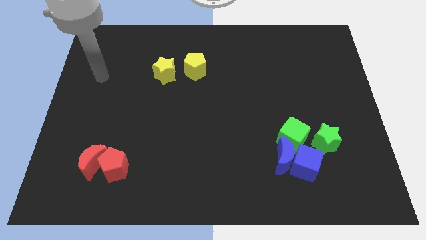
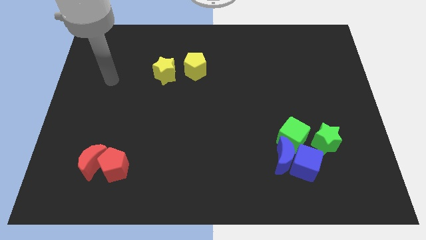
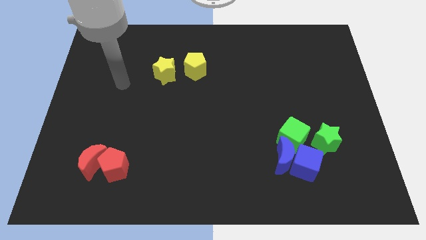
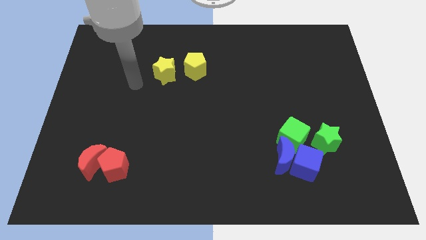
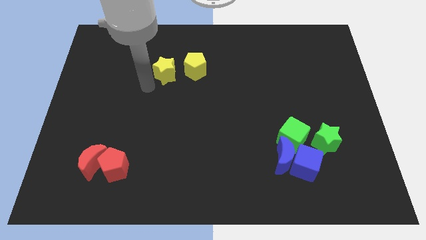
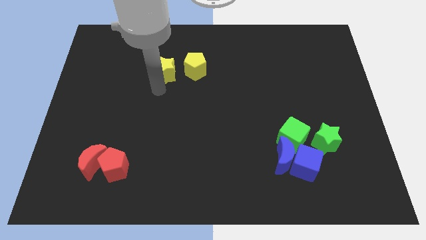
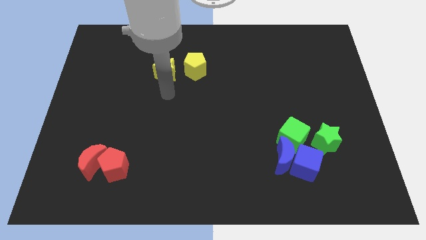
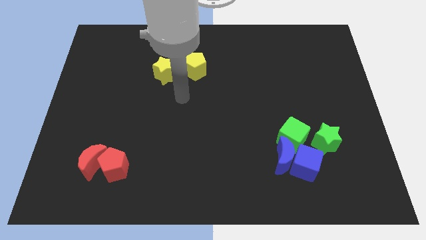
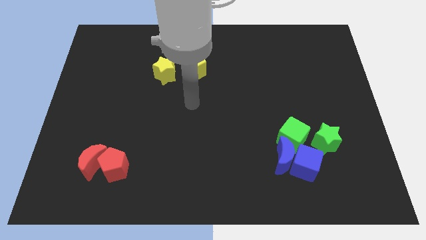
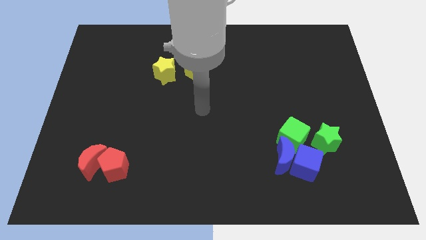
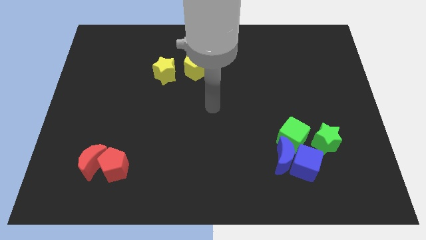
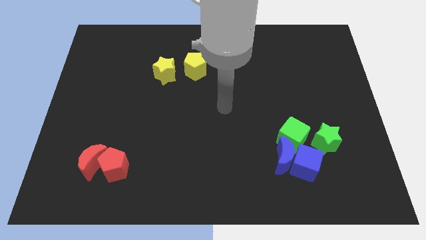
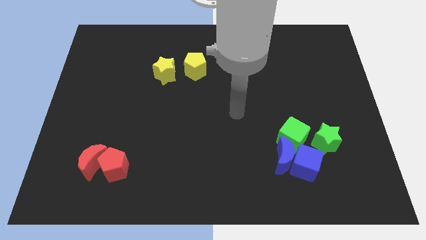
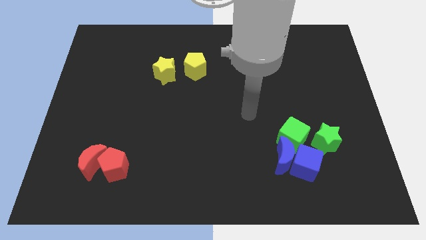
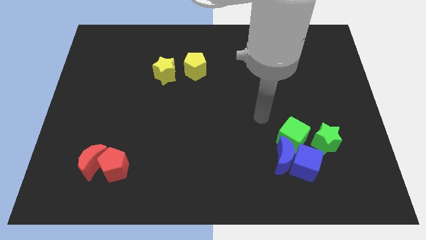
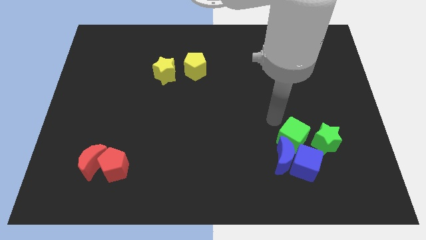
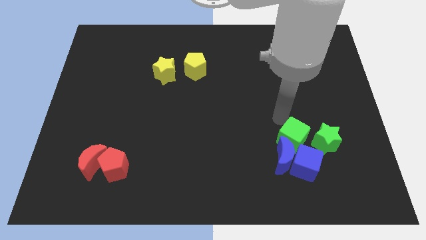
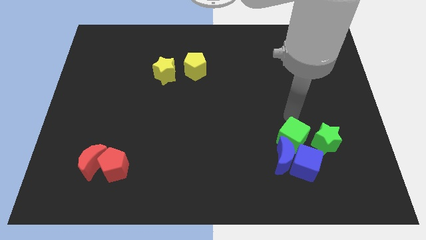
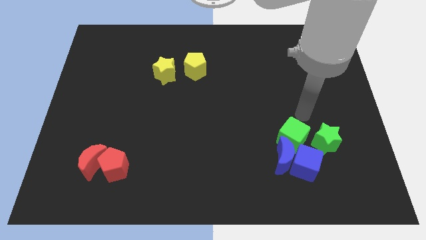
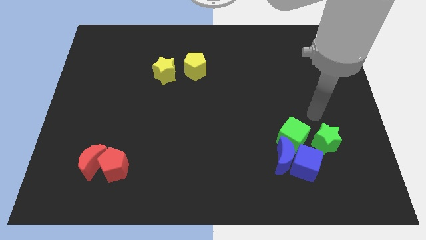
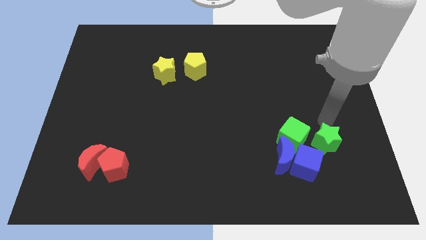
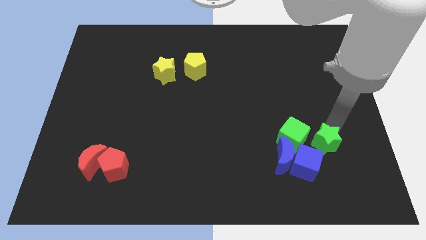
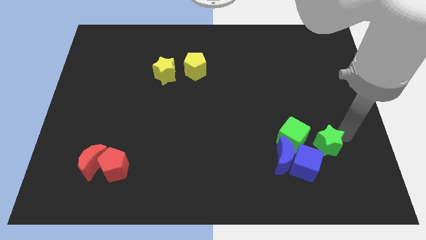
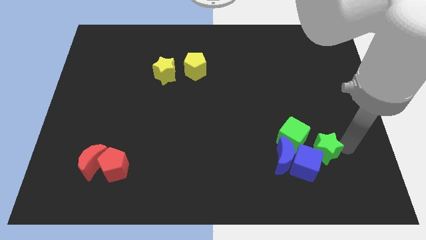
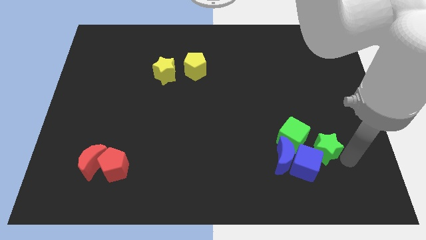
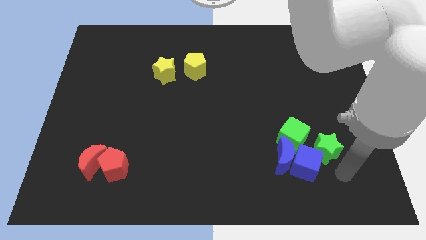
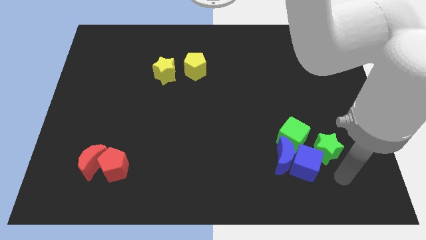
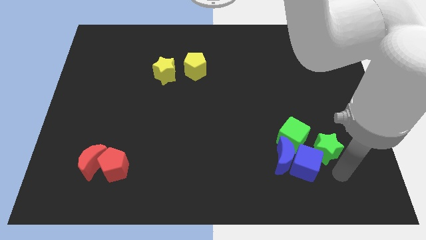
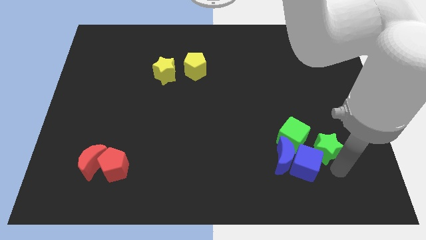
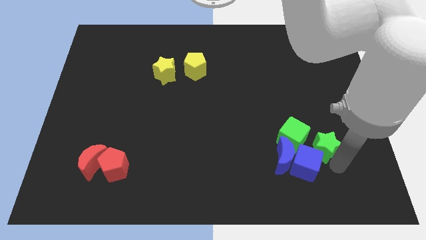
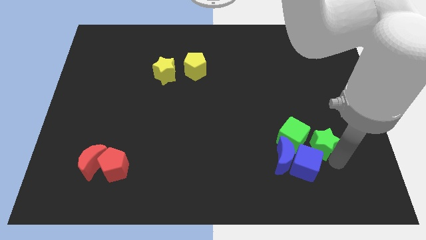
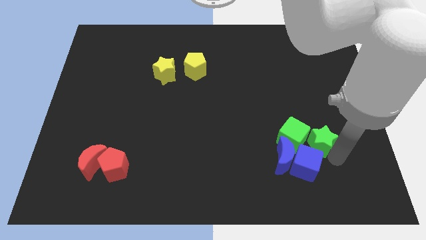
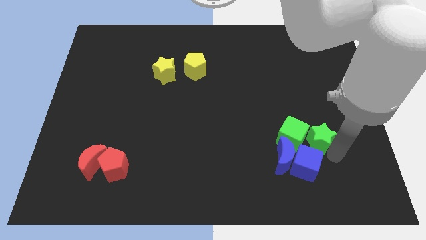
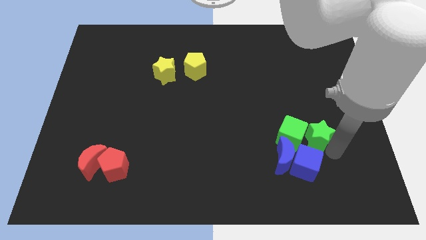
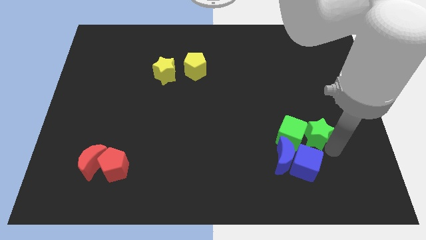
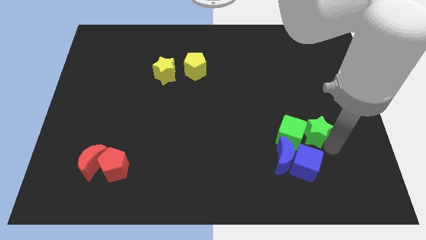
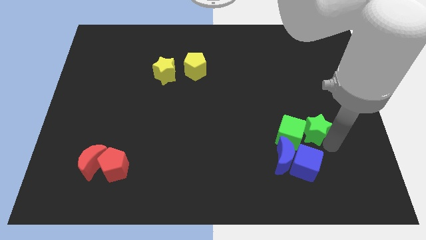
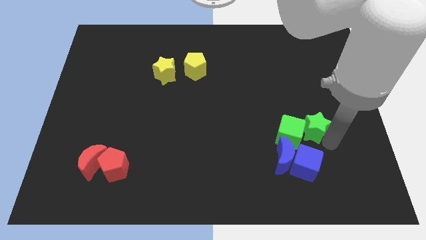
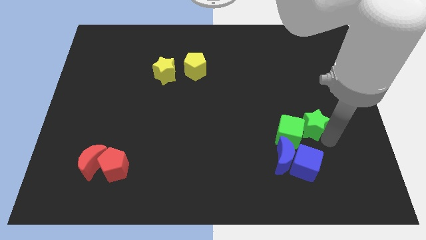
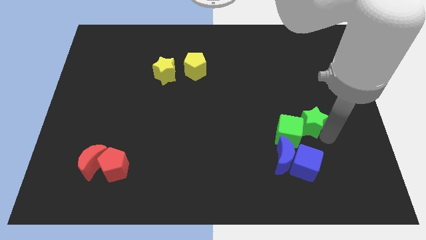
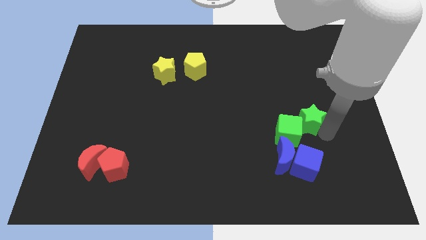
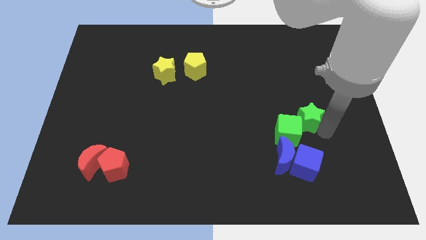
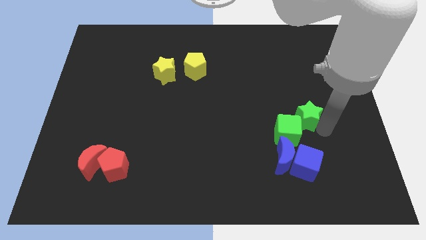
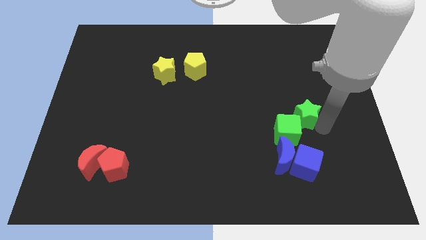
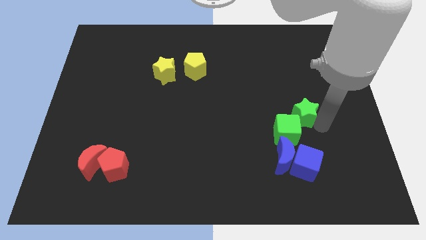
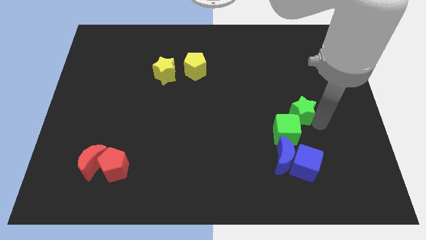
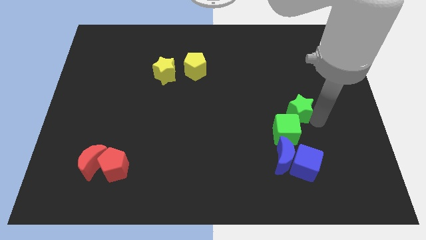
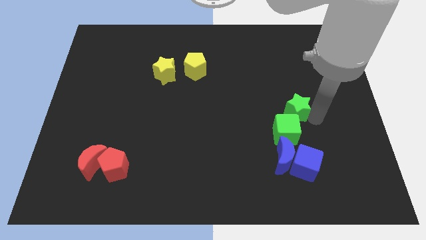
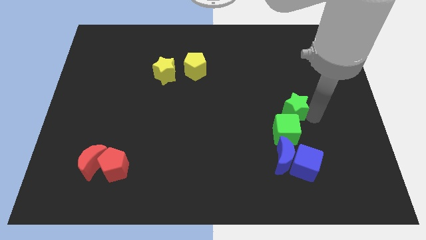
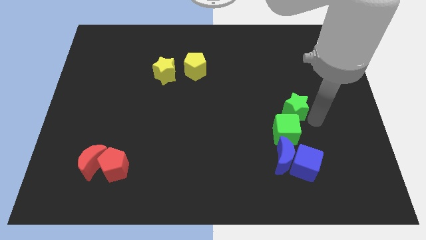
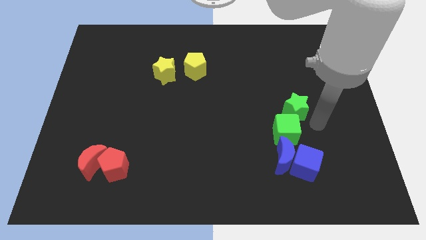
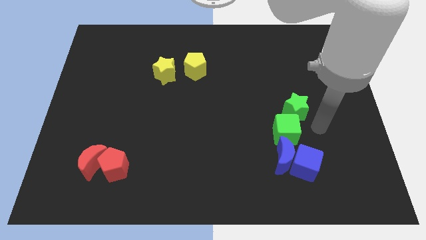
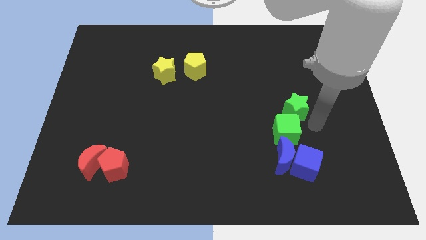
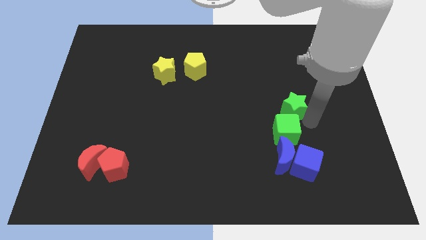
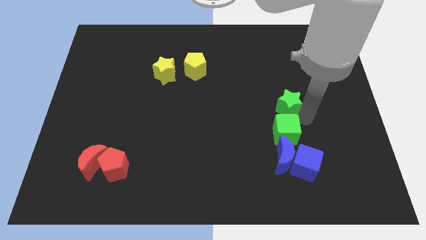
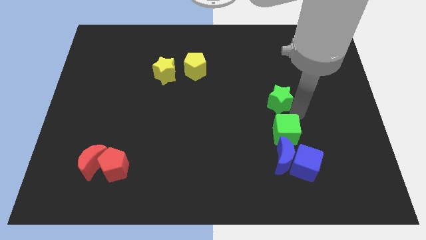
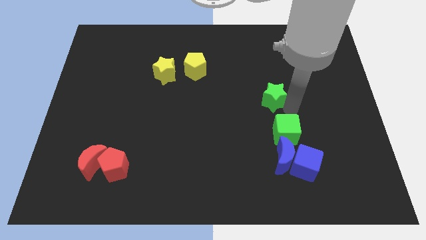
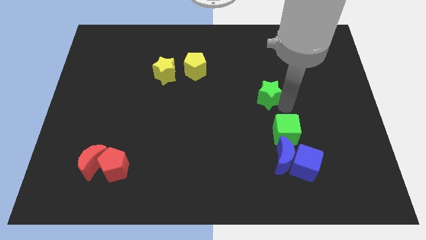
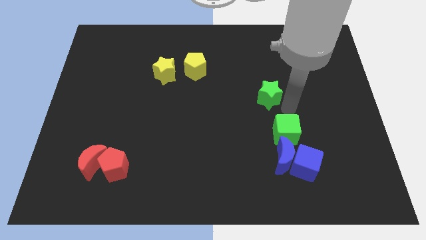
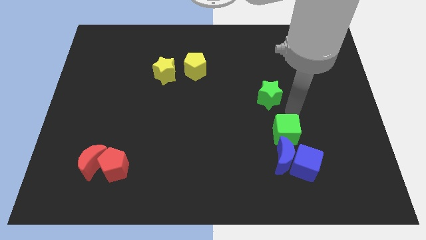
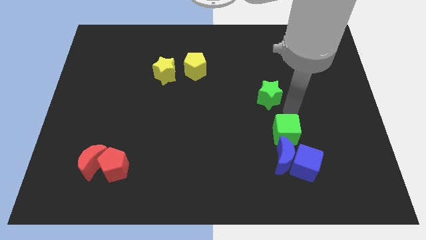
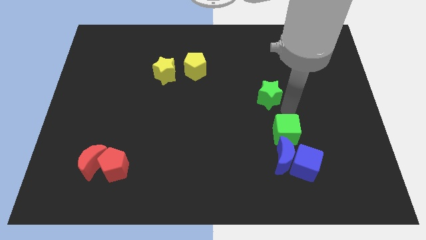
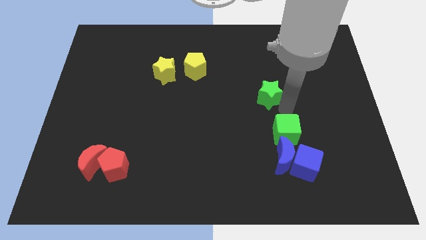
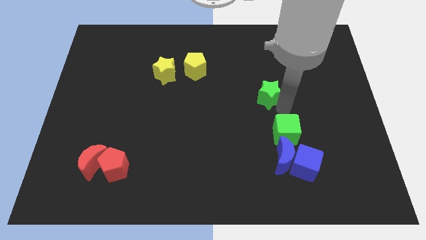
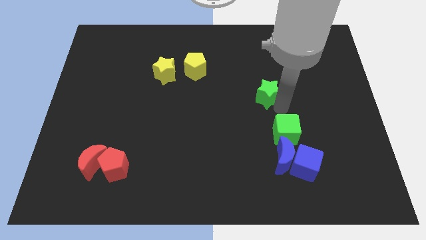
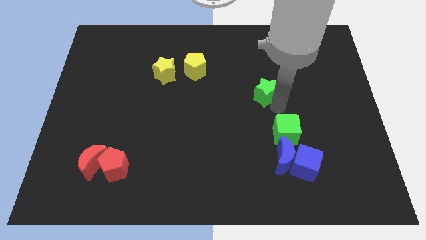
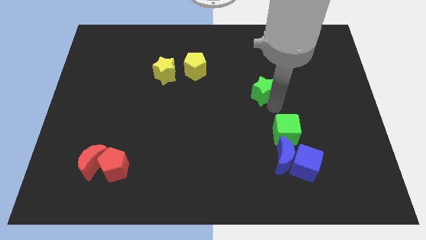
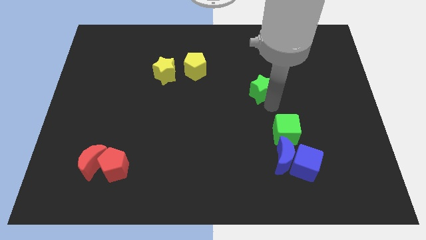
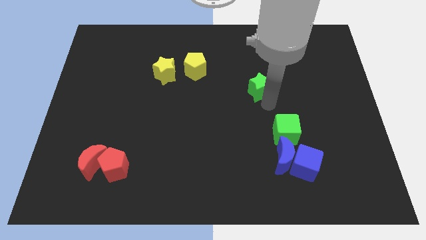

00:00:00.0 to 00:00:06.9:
slide the green star upwards and to the left

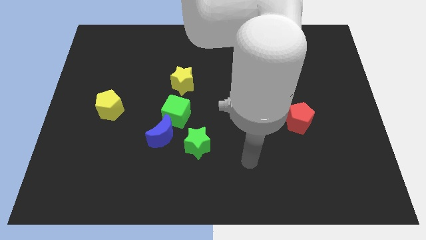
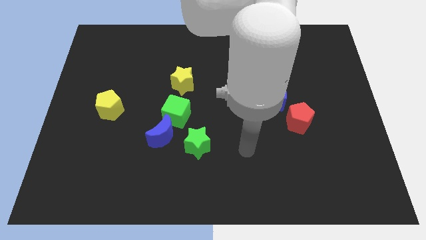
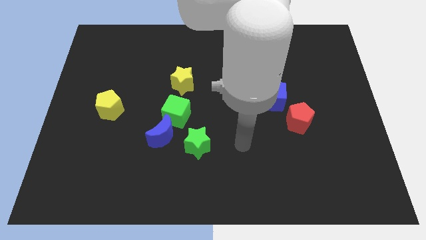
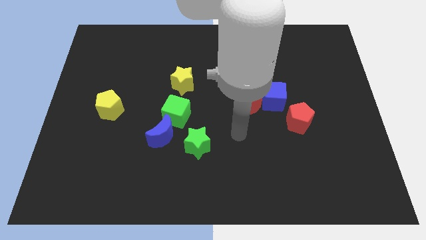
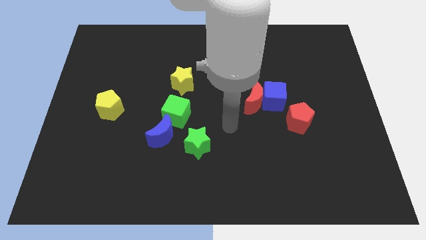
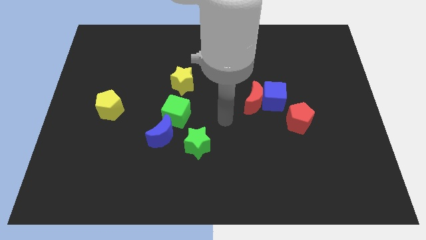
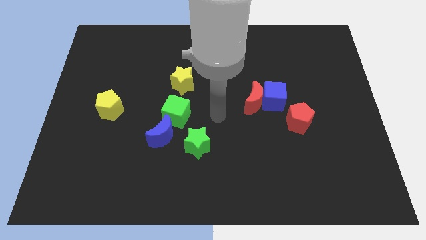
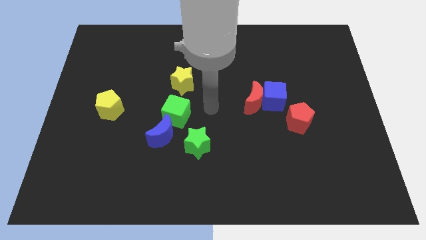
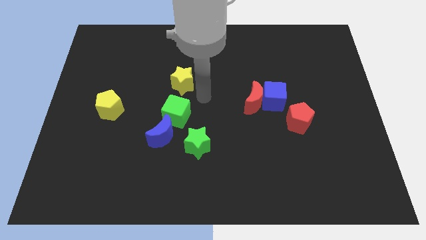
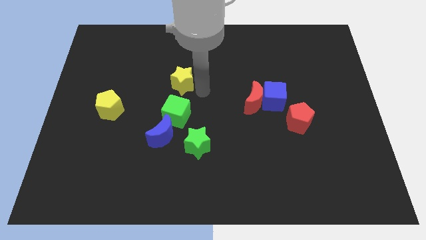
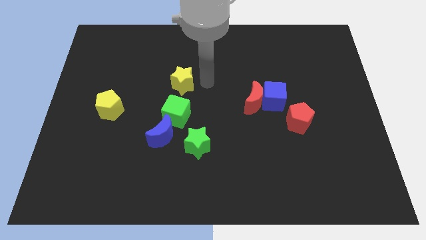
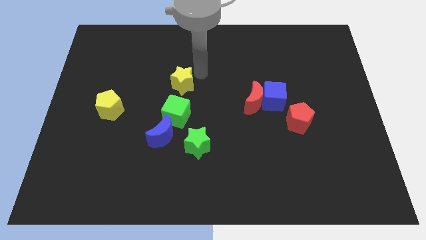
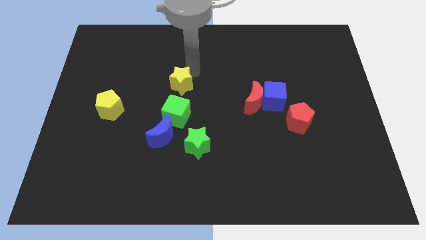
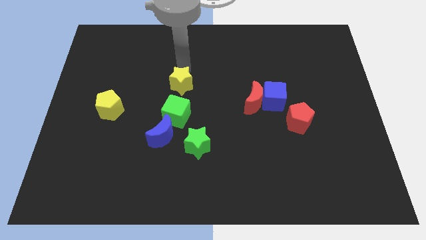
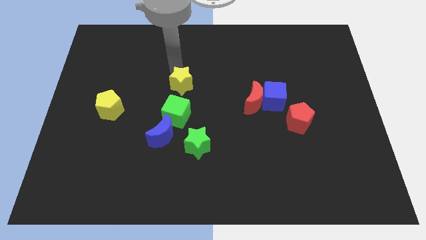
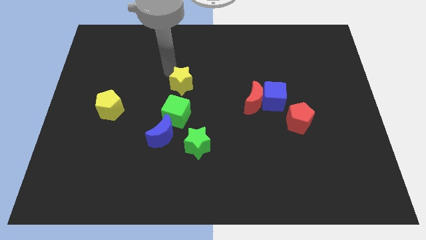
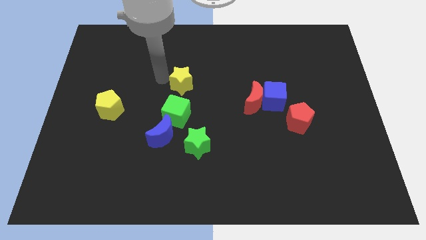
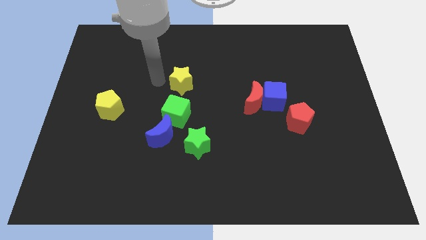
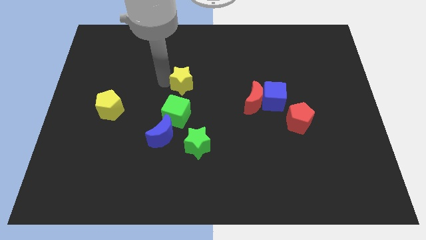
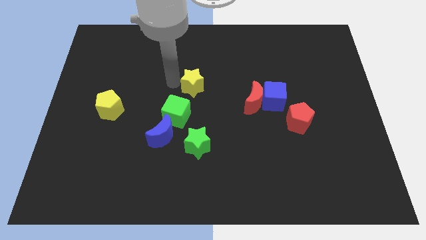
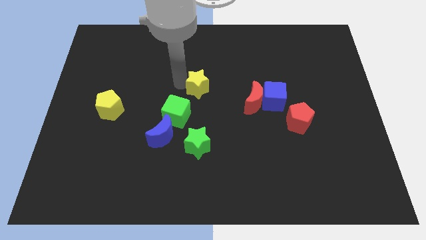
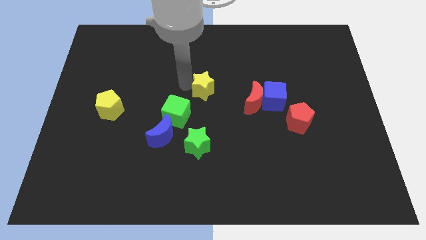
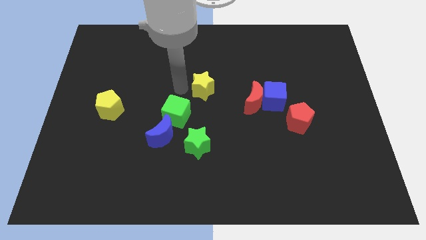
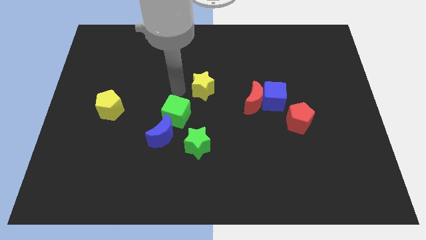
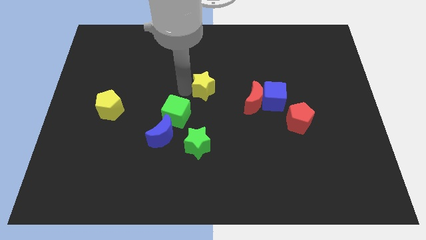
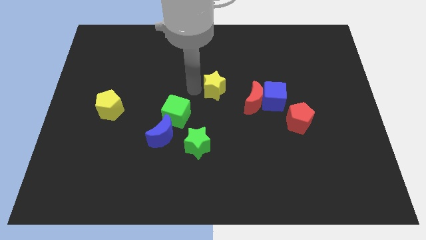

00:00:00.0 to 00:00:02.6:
slide the yellow star slightly to the right
